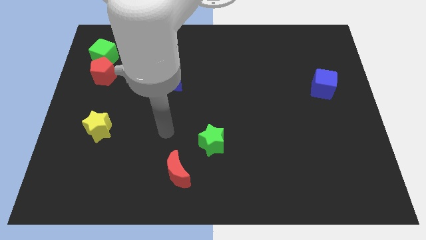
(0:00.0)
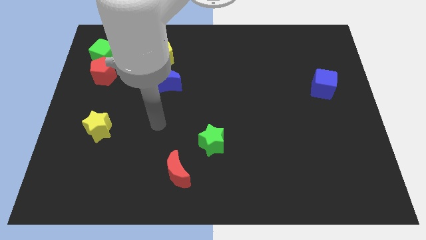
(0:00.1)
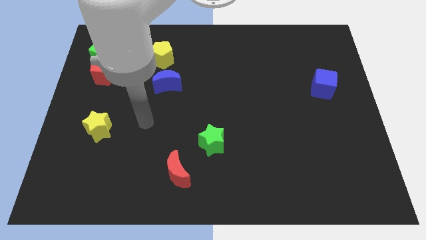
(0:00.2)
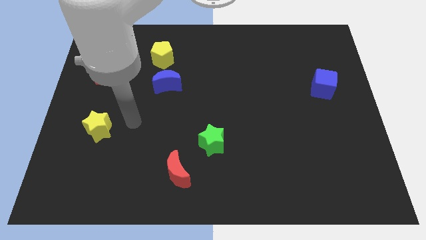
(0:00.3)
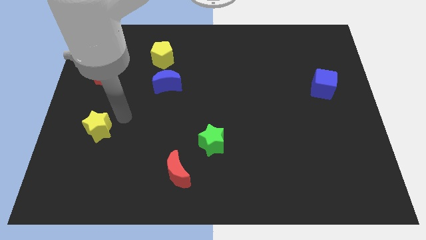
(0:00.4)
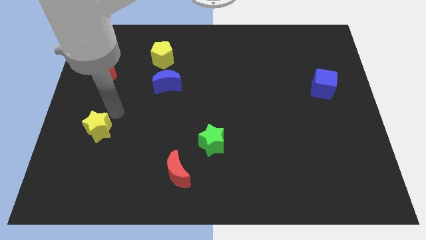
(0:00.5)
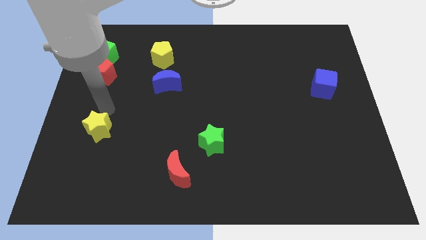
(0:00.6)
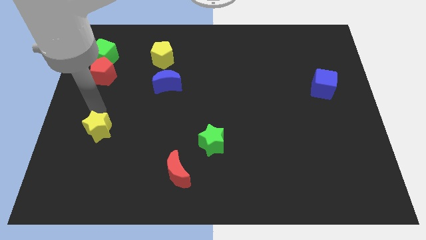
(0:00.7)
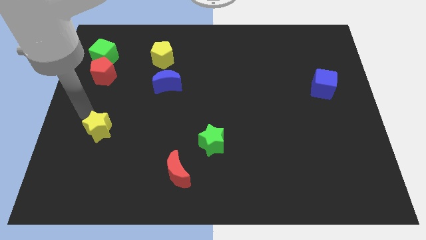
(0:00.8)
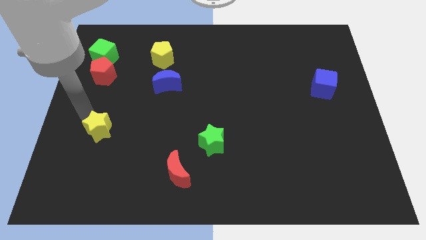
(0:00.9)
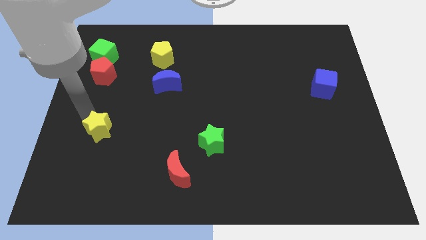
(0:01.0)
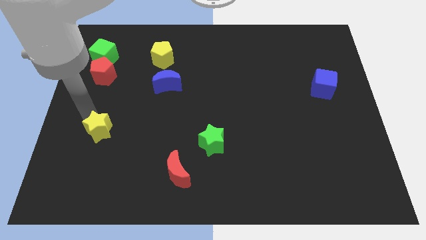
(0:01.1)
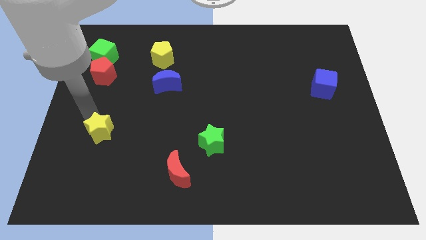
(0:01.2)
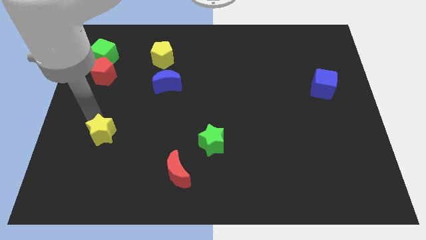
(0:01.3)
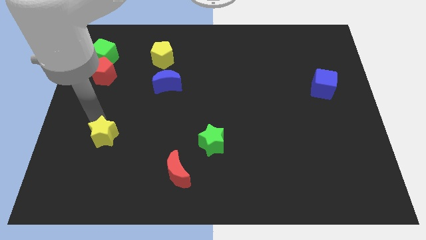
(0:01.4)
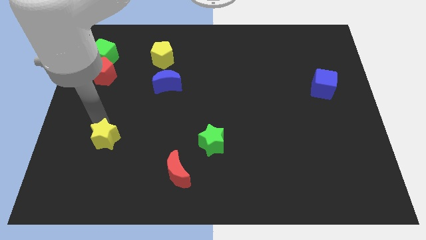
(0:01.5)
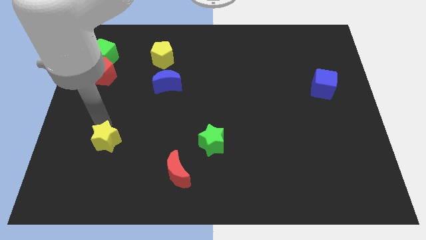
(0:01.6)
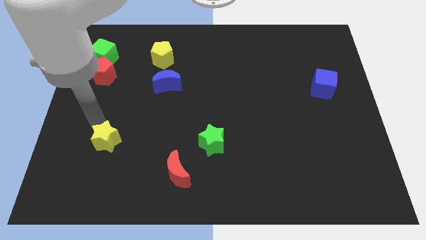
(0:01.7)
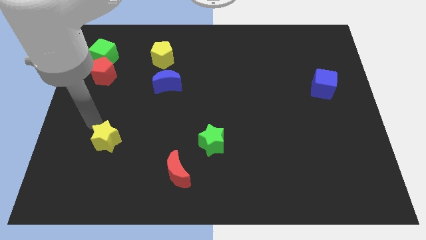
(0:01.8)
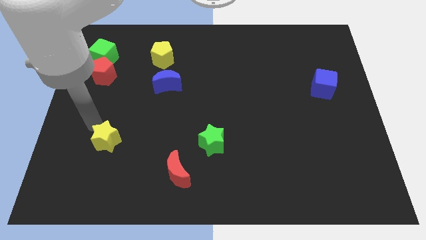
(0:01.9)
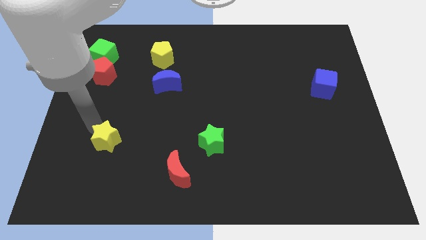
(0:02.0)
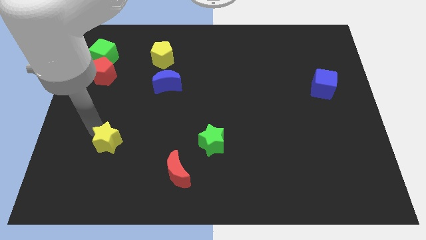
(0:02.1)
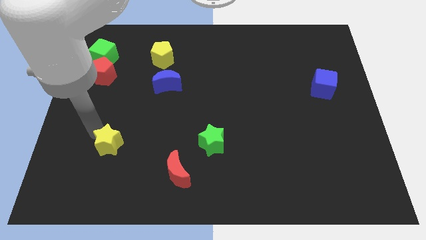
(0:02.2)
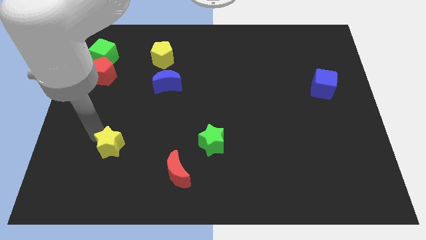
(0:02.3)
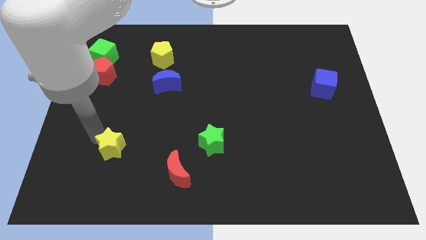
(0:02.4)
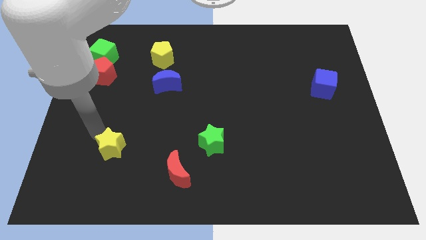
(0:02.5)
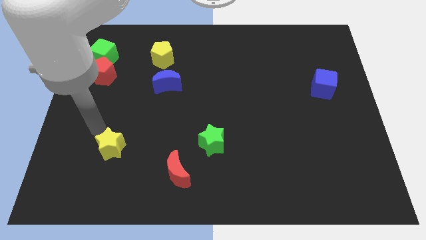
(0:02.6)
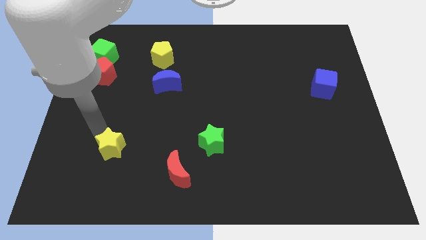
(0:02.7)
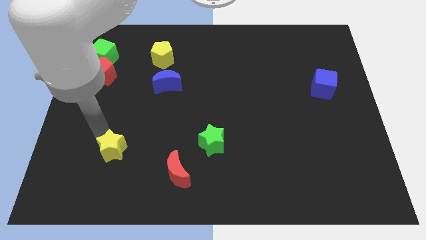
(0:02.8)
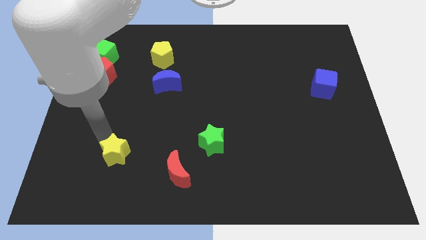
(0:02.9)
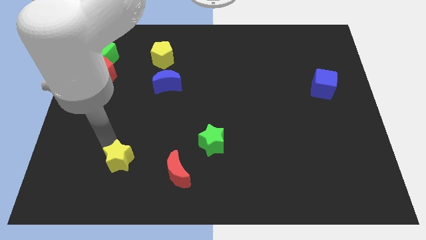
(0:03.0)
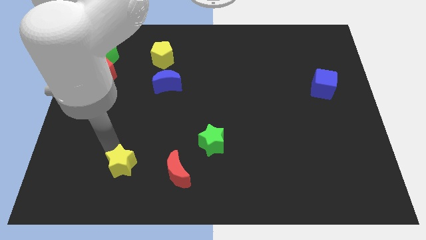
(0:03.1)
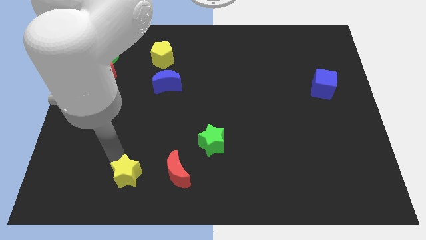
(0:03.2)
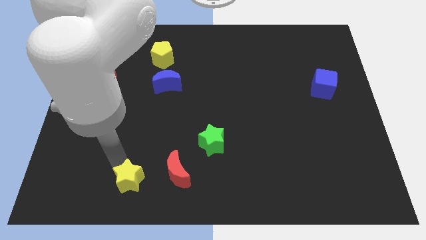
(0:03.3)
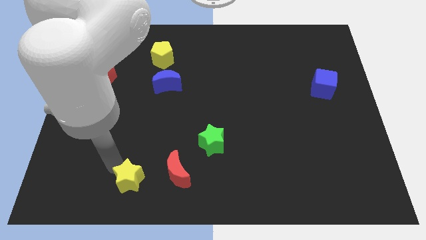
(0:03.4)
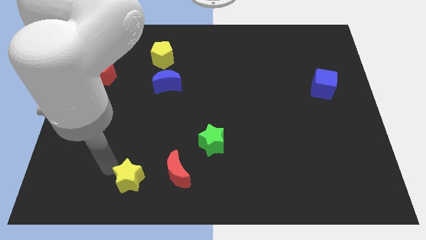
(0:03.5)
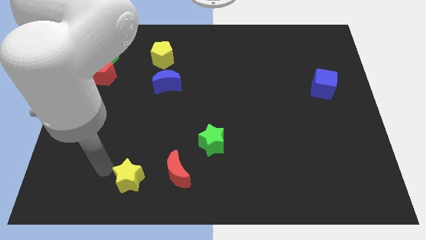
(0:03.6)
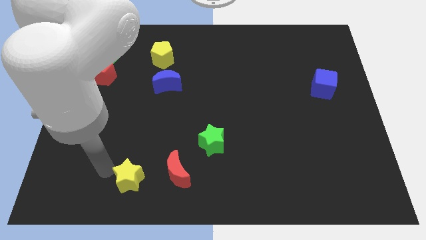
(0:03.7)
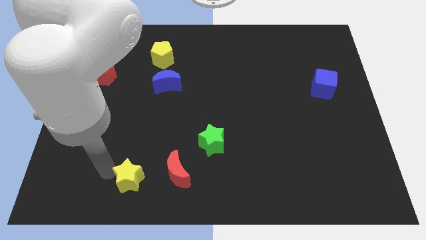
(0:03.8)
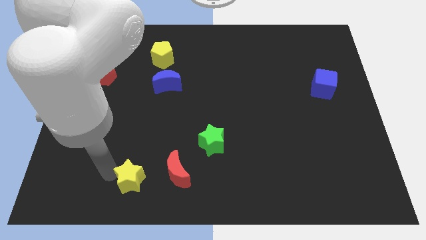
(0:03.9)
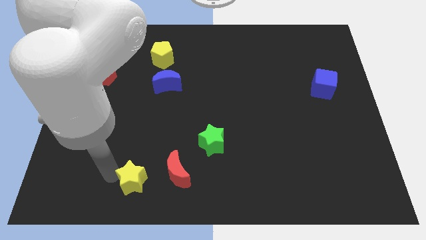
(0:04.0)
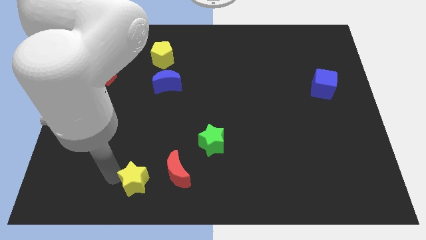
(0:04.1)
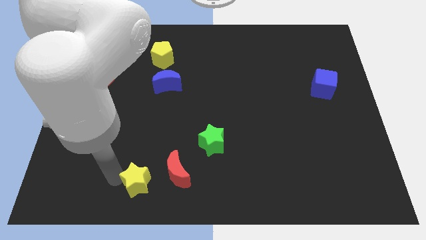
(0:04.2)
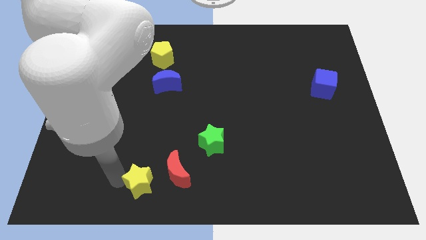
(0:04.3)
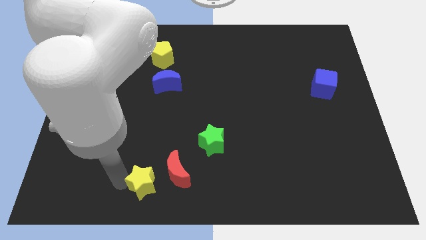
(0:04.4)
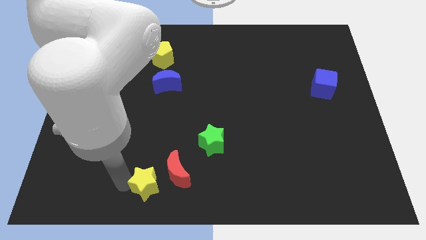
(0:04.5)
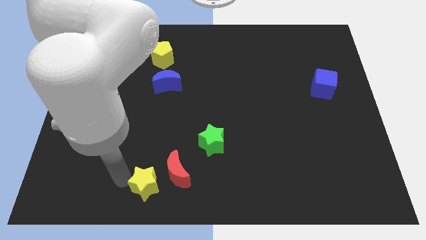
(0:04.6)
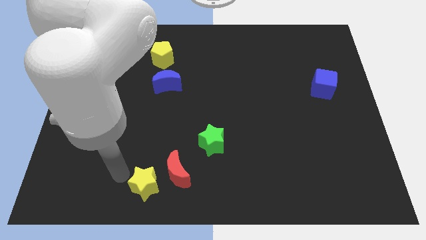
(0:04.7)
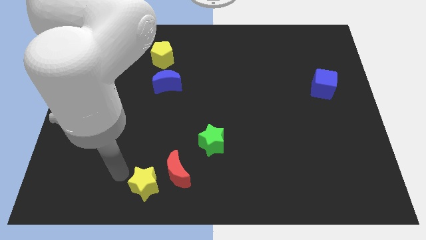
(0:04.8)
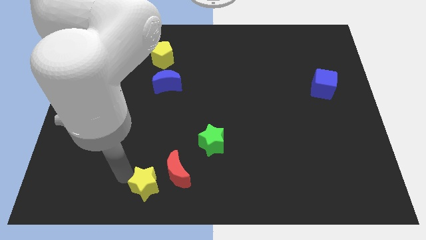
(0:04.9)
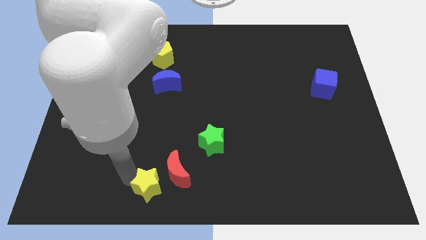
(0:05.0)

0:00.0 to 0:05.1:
move the yellow star to the bottom

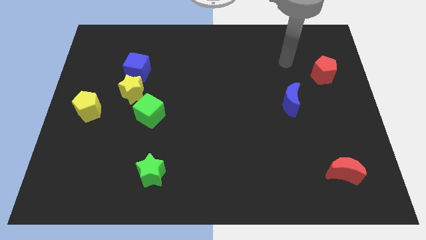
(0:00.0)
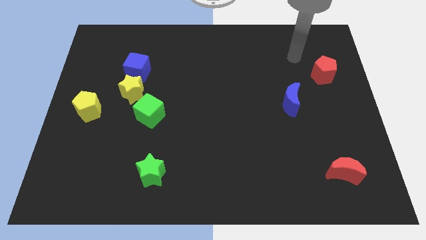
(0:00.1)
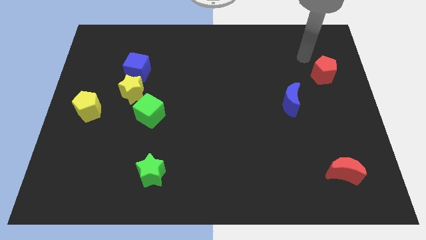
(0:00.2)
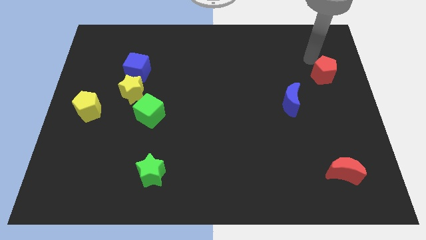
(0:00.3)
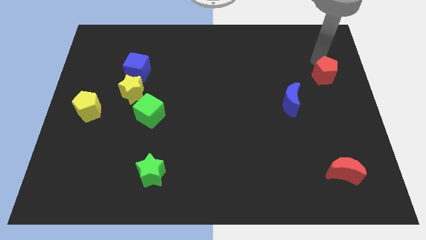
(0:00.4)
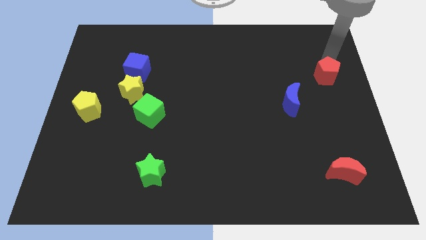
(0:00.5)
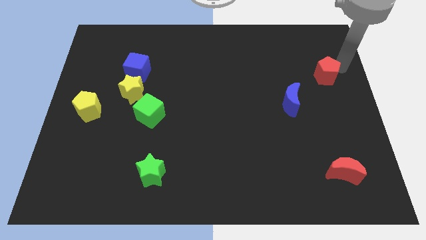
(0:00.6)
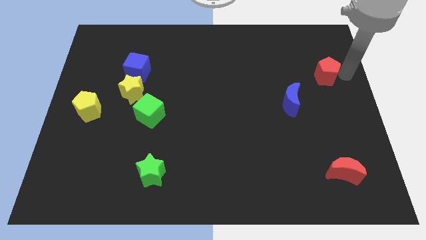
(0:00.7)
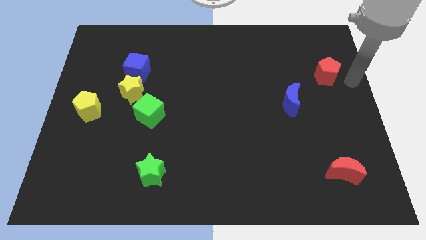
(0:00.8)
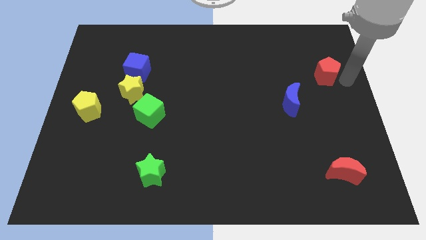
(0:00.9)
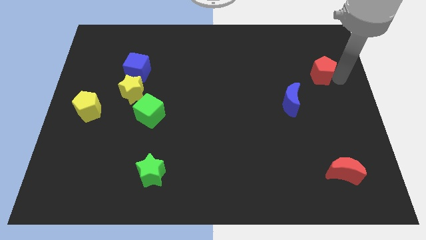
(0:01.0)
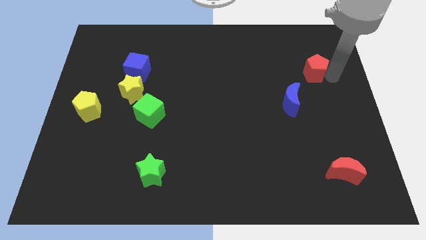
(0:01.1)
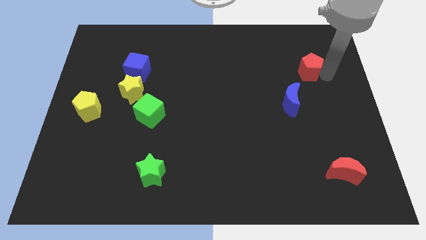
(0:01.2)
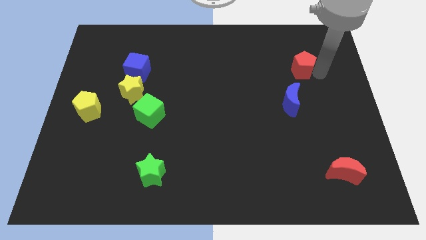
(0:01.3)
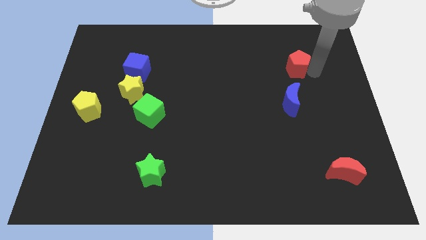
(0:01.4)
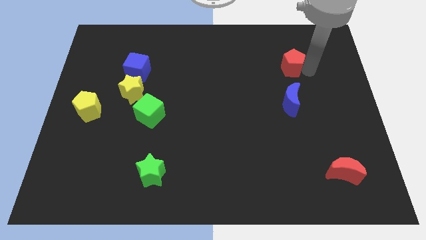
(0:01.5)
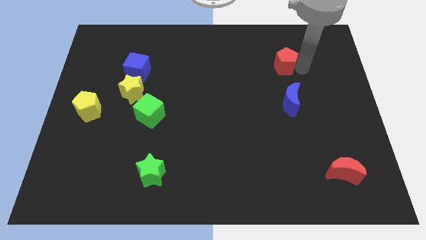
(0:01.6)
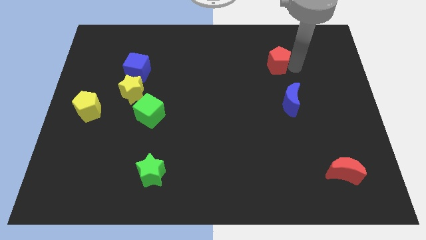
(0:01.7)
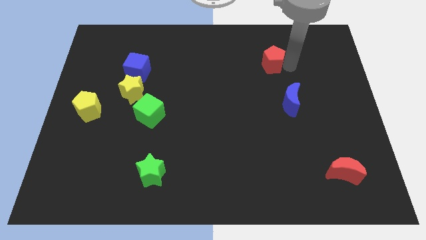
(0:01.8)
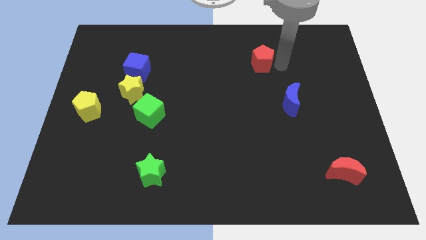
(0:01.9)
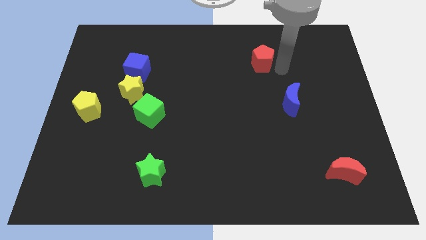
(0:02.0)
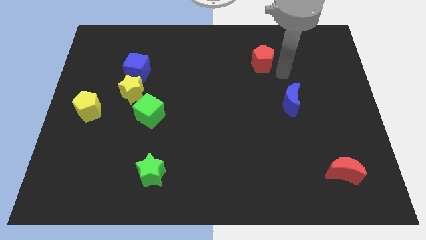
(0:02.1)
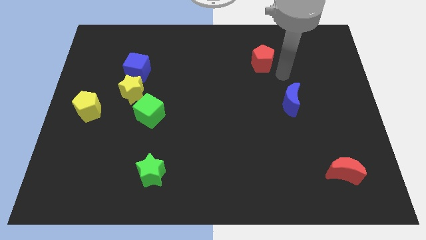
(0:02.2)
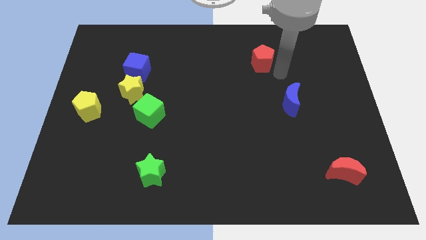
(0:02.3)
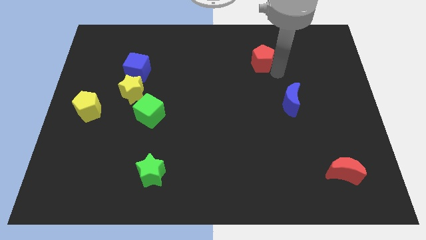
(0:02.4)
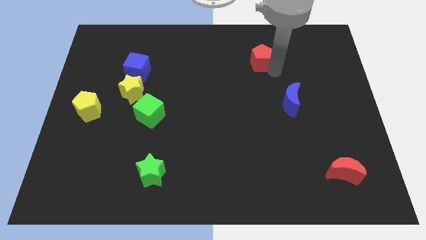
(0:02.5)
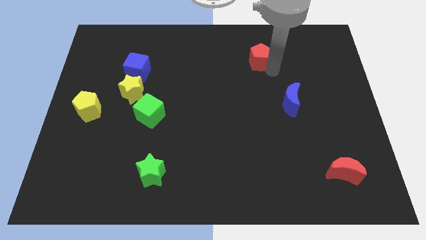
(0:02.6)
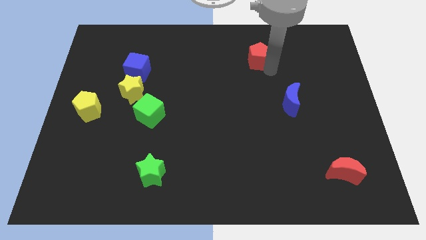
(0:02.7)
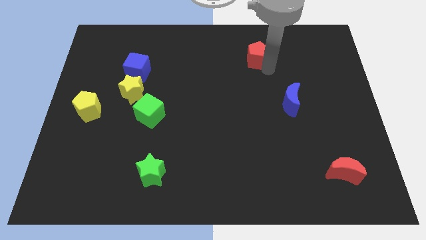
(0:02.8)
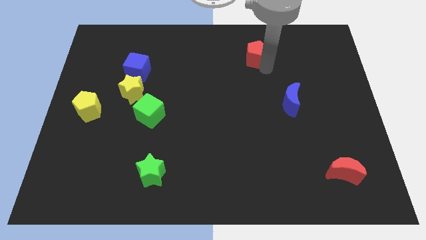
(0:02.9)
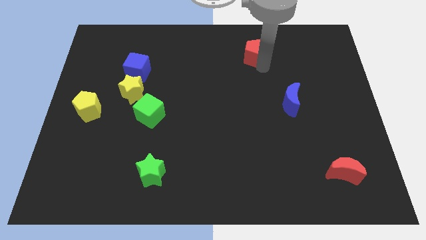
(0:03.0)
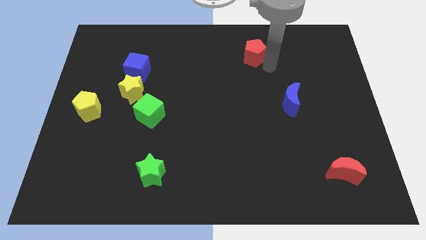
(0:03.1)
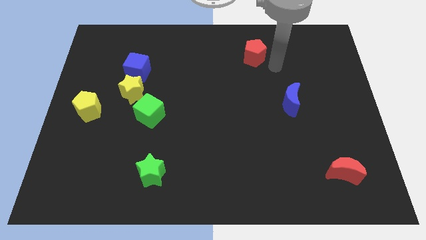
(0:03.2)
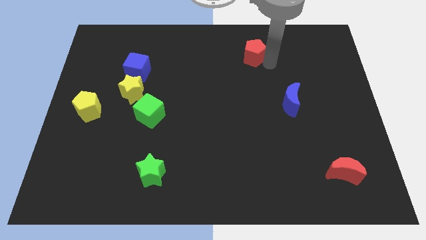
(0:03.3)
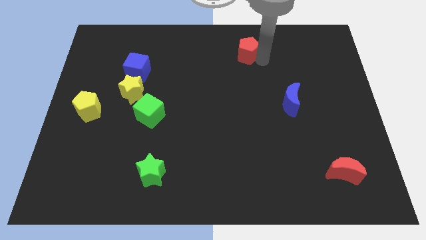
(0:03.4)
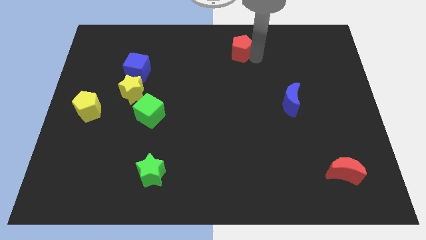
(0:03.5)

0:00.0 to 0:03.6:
move the red pentagon to the towards your base
